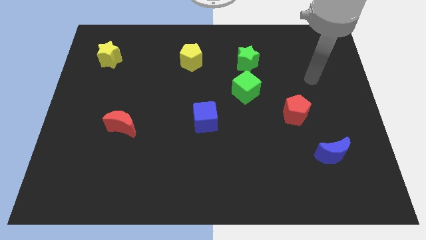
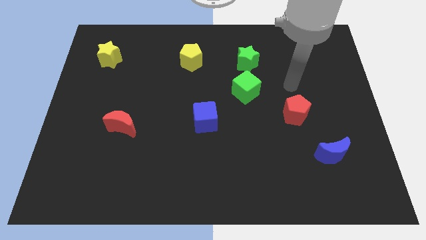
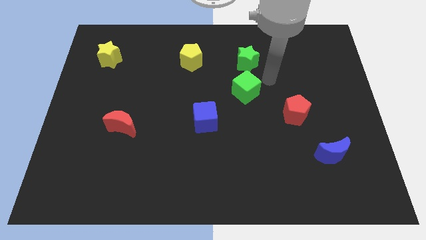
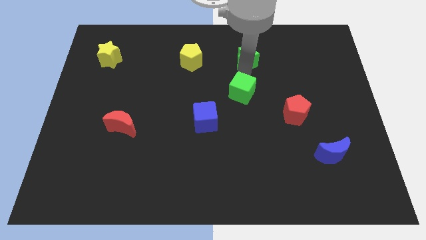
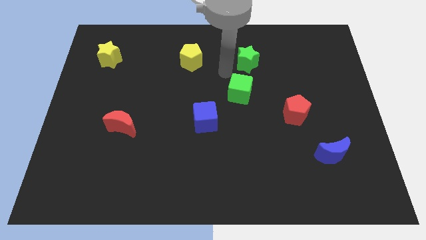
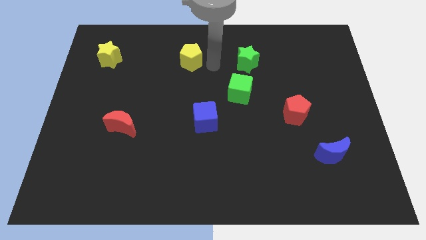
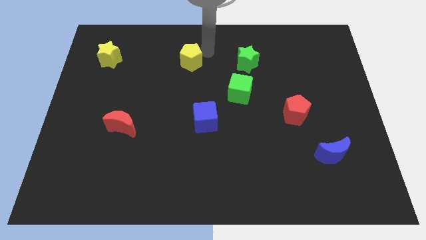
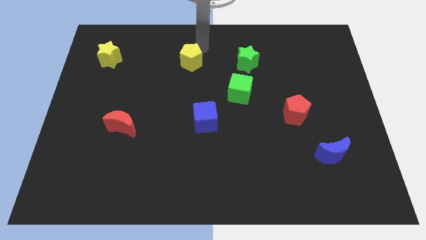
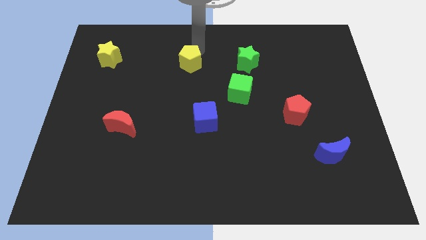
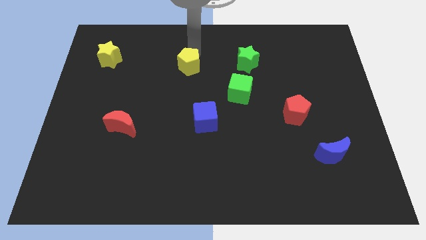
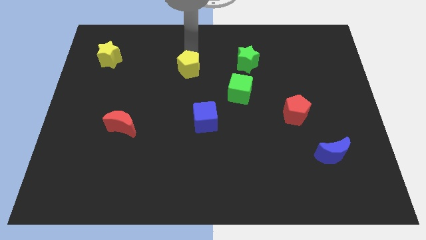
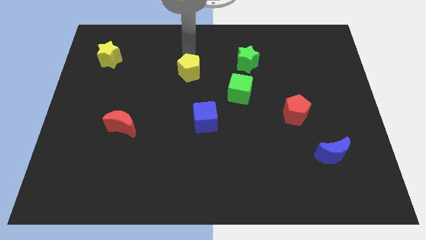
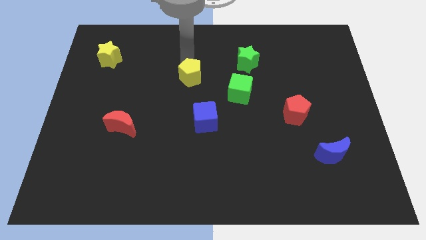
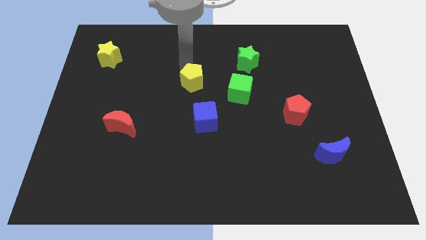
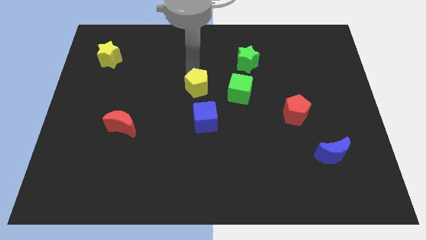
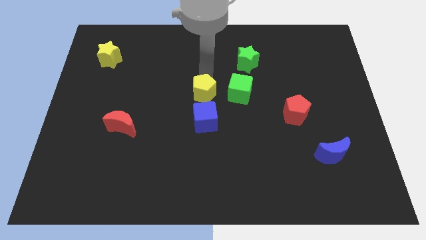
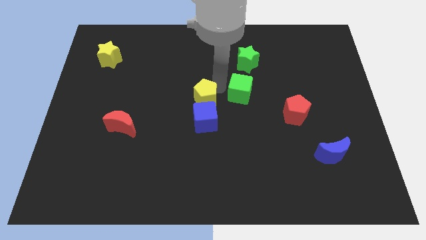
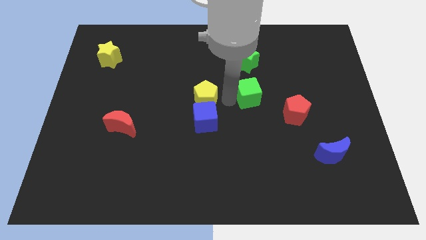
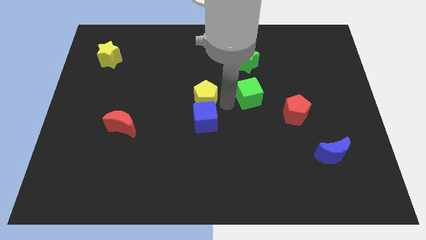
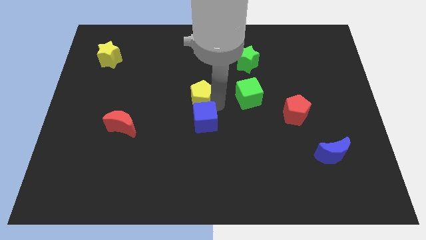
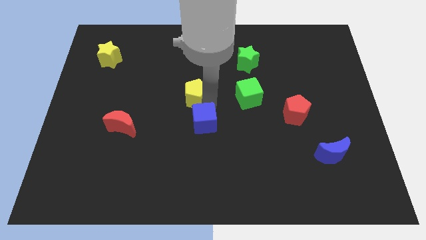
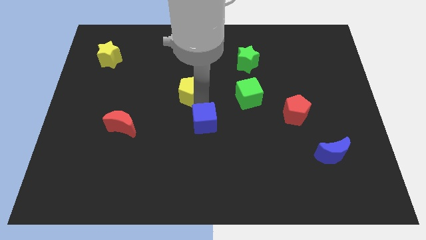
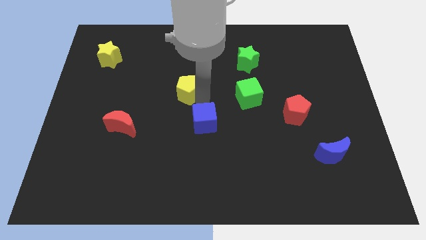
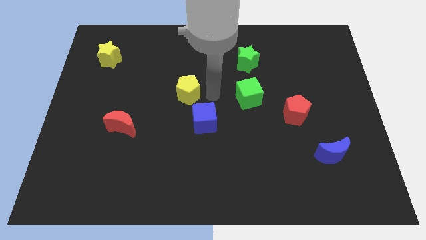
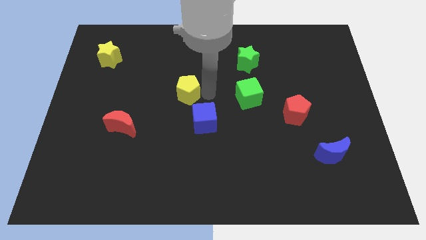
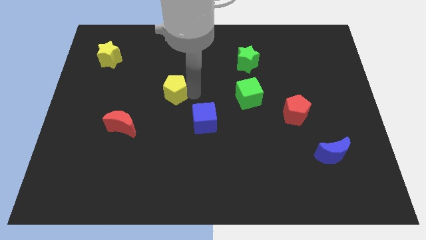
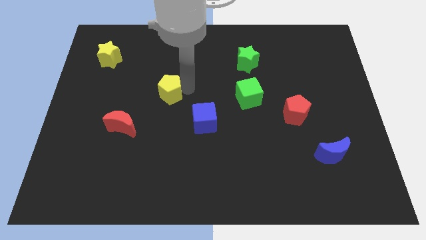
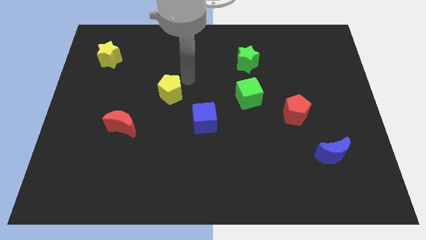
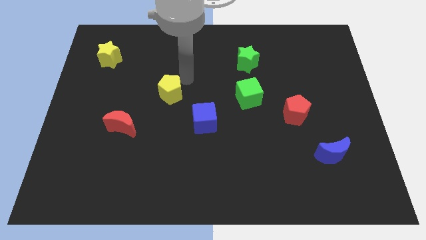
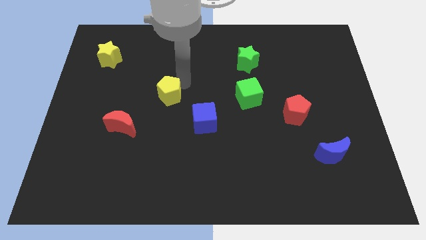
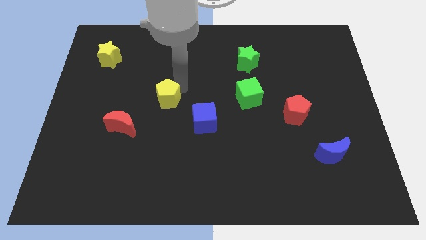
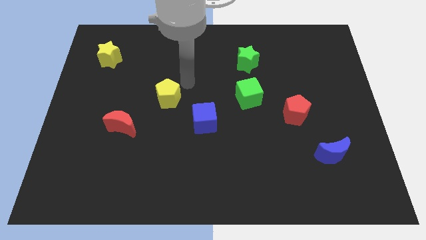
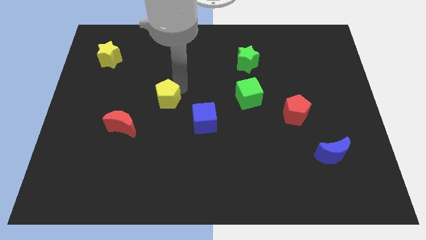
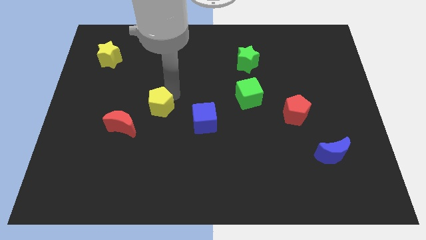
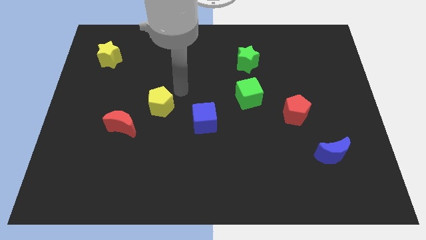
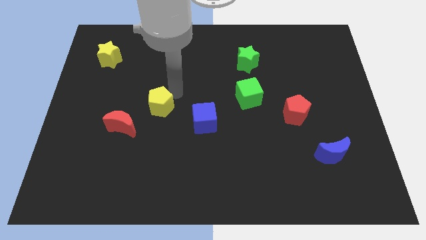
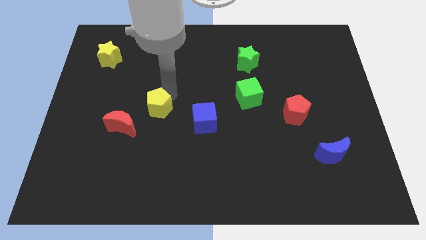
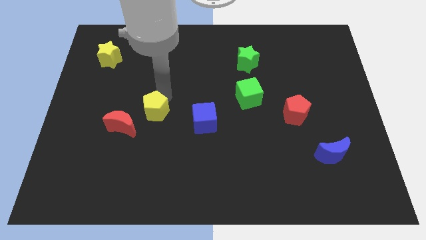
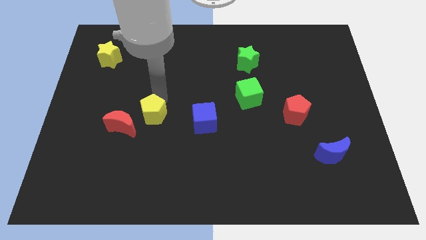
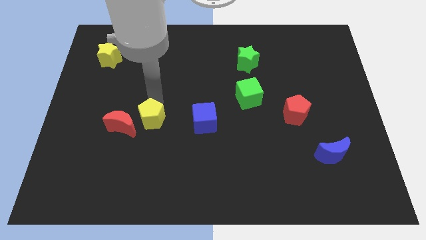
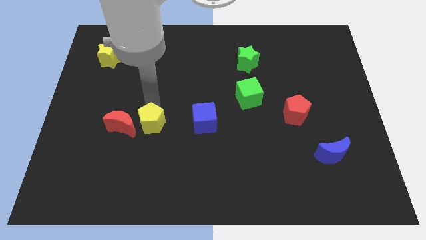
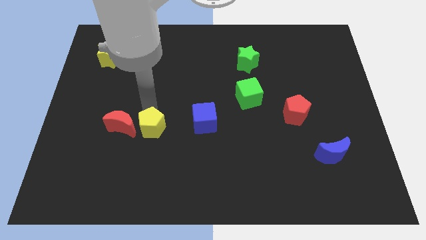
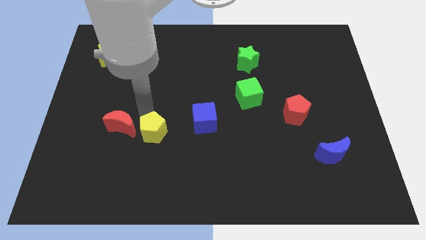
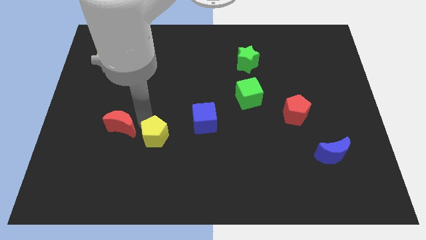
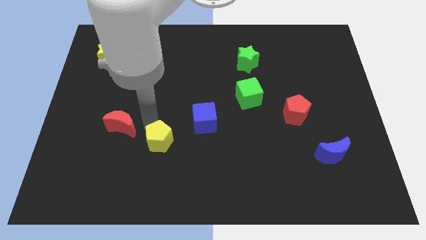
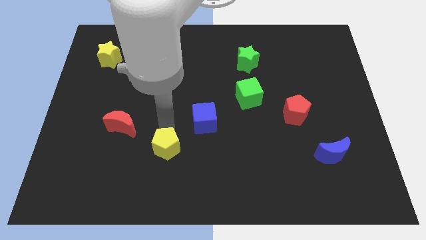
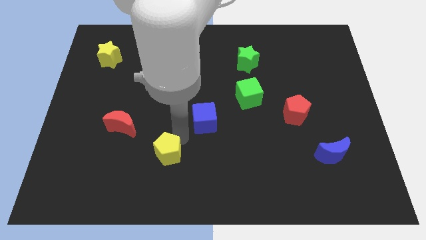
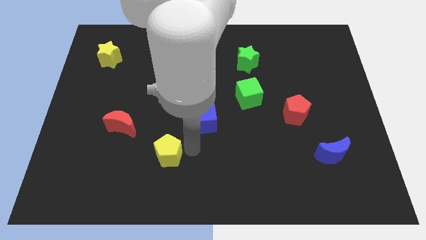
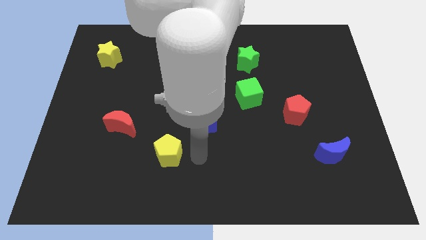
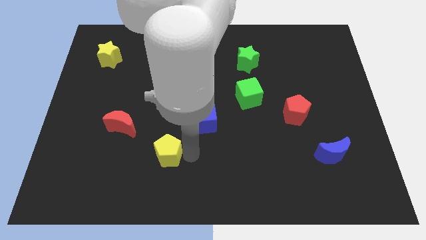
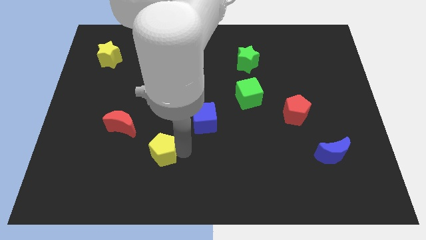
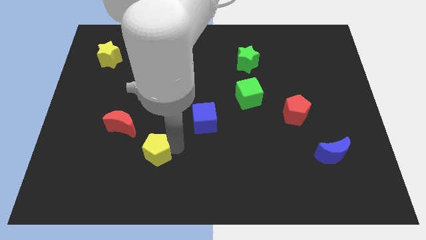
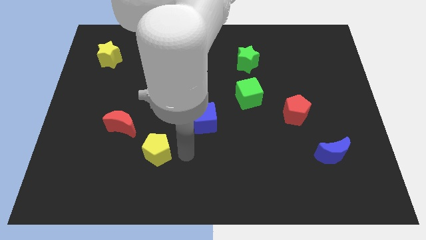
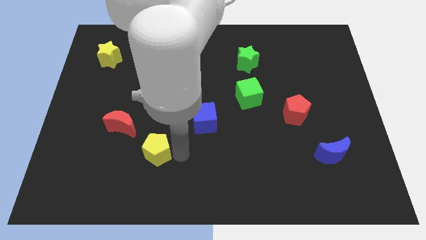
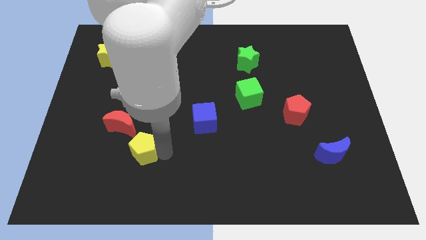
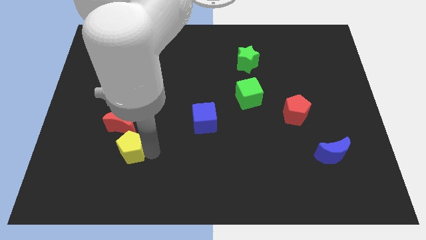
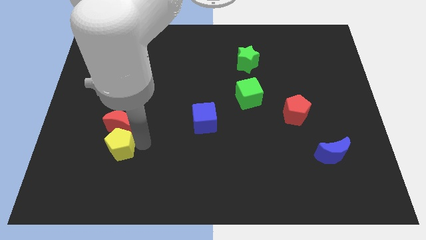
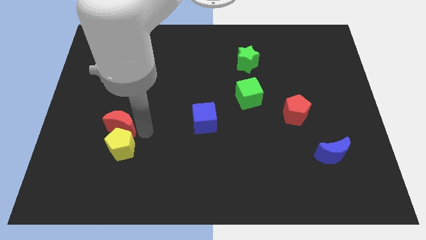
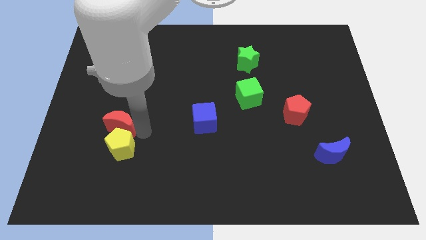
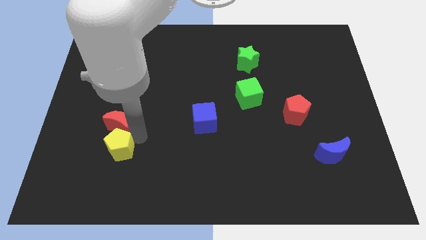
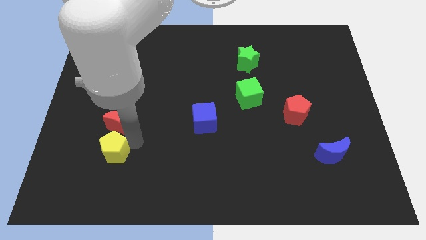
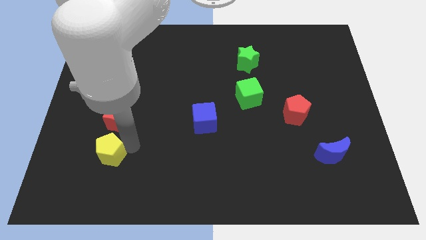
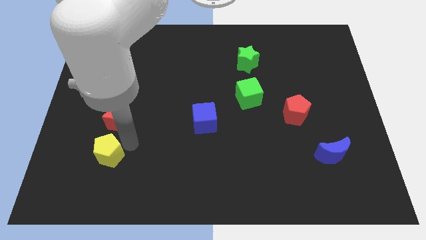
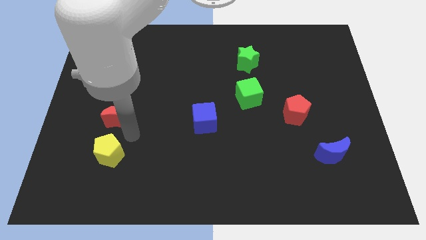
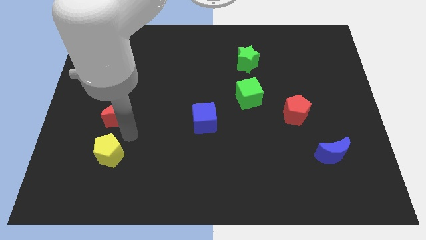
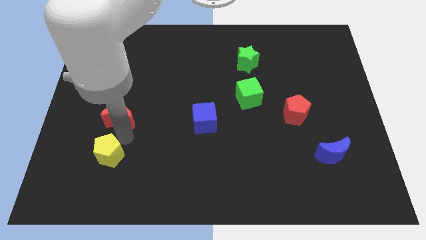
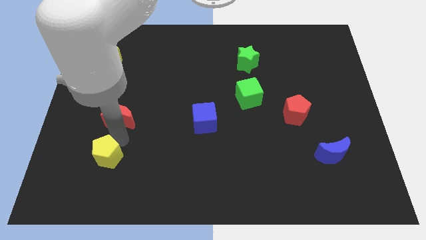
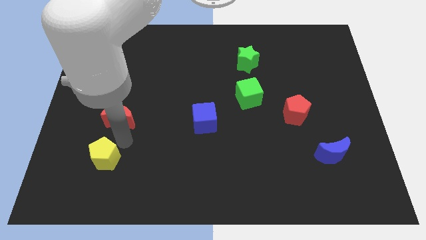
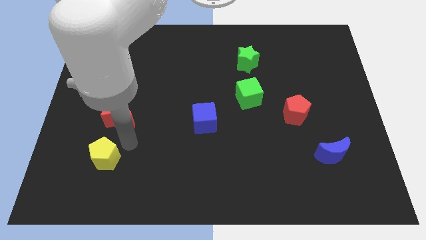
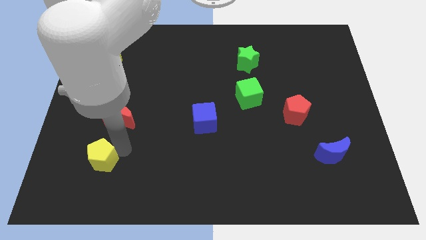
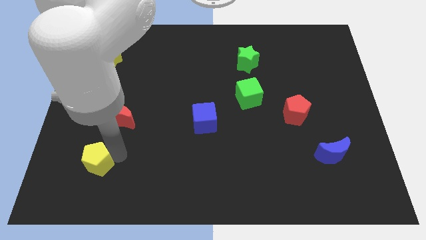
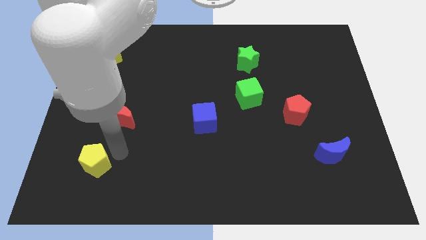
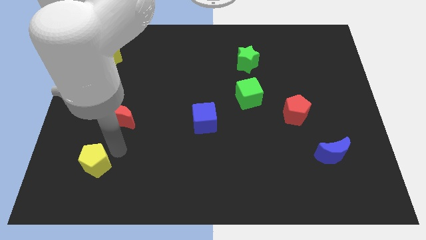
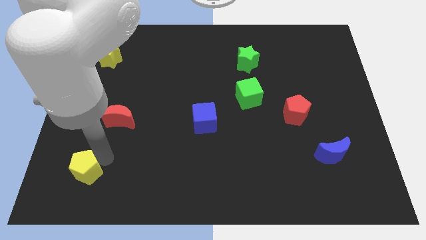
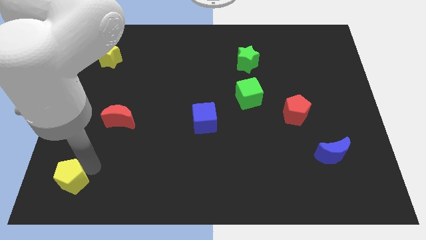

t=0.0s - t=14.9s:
push the yellow pentagon to the bottom left of the board
